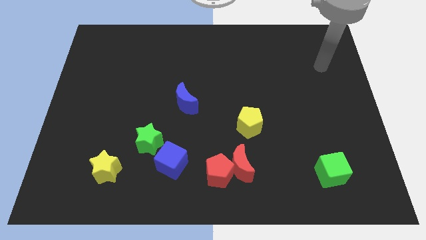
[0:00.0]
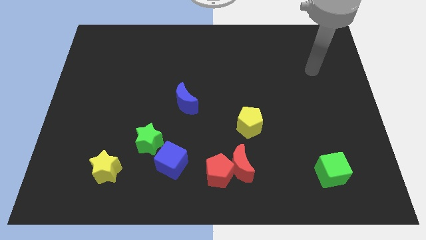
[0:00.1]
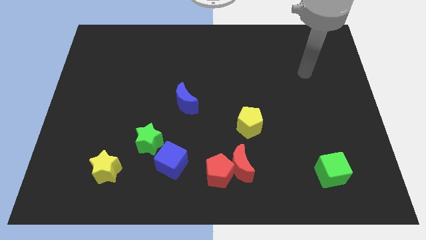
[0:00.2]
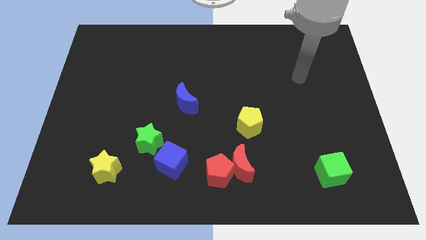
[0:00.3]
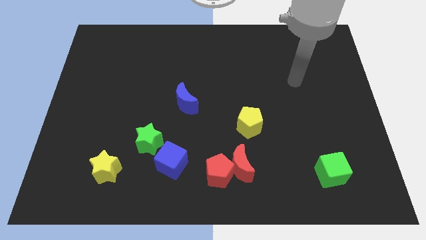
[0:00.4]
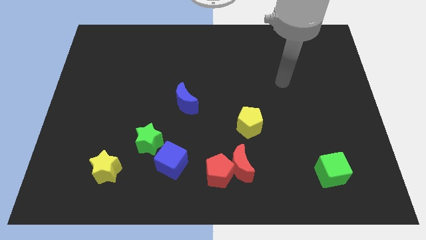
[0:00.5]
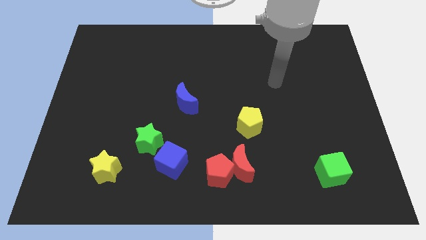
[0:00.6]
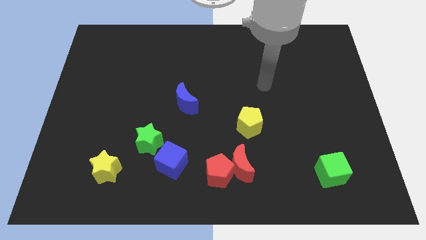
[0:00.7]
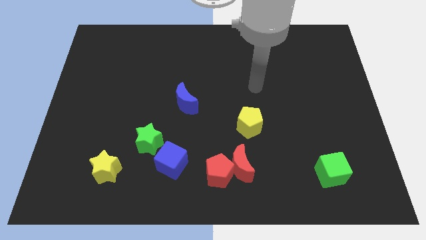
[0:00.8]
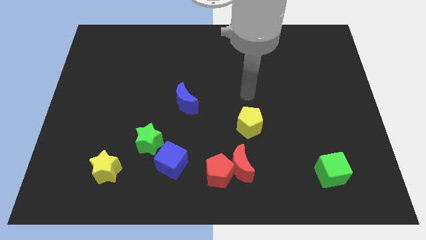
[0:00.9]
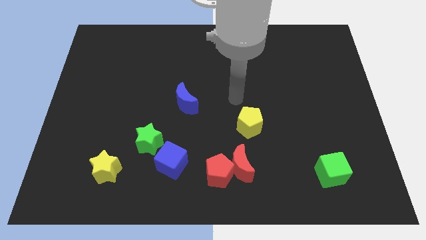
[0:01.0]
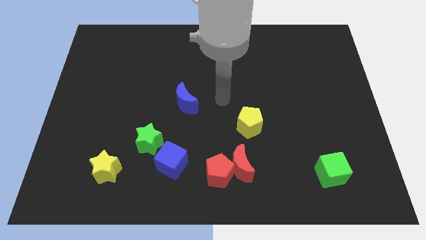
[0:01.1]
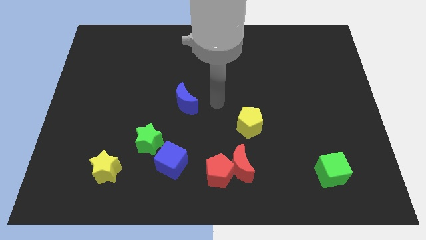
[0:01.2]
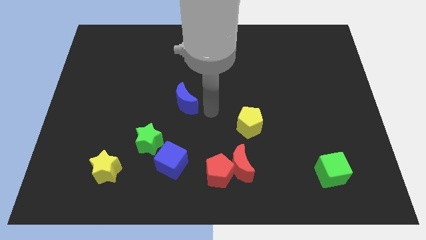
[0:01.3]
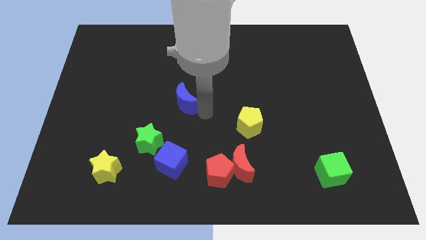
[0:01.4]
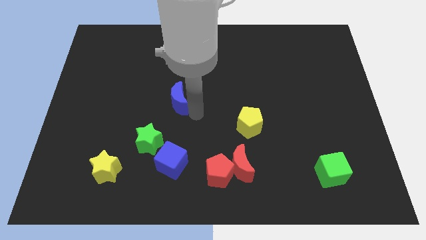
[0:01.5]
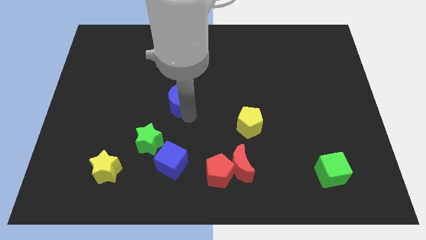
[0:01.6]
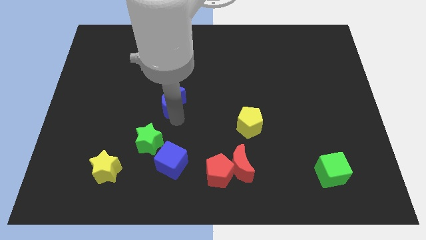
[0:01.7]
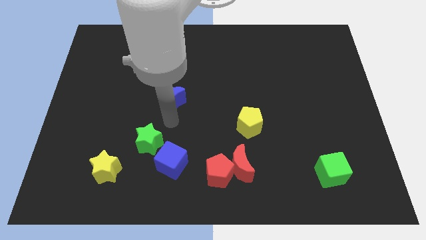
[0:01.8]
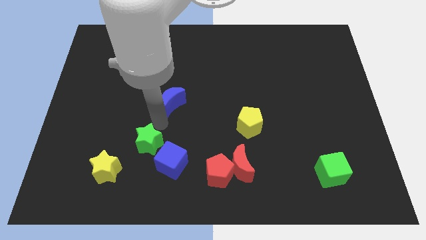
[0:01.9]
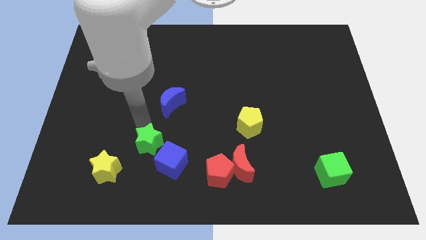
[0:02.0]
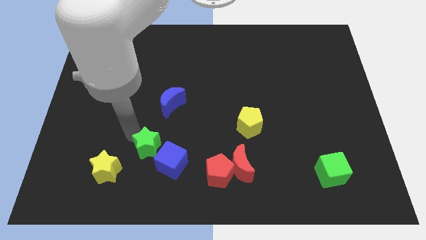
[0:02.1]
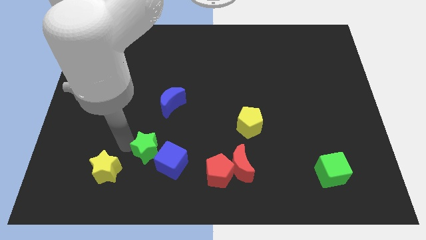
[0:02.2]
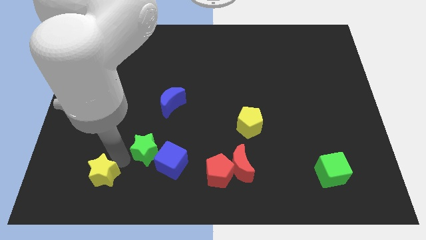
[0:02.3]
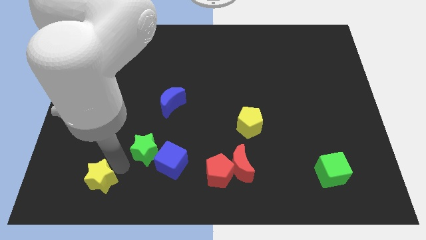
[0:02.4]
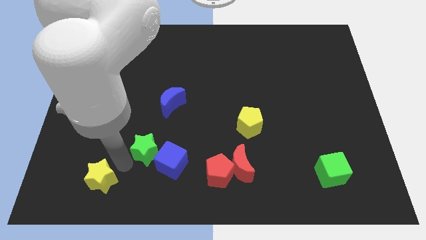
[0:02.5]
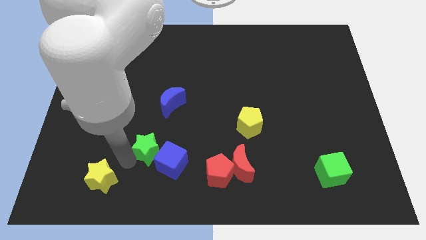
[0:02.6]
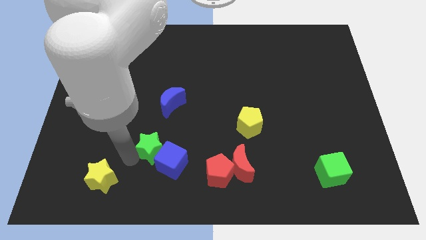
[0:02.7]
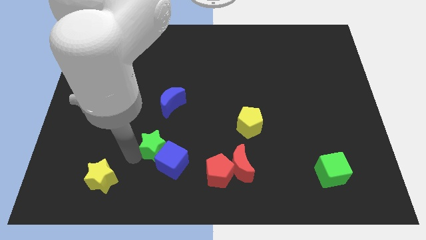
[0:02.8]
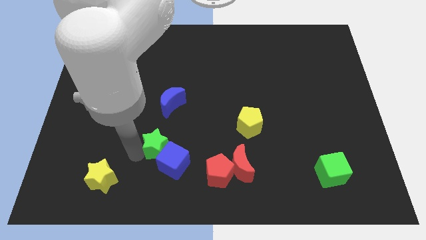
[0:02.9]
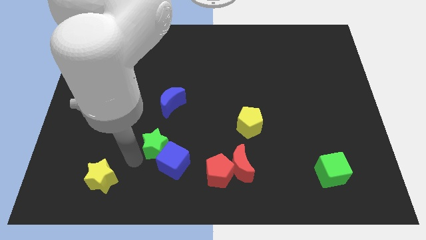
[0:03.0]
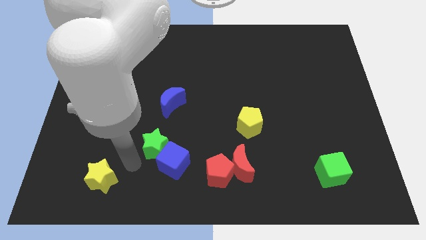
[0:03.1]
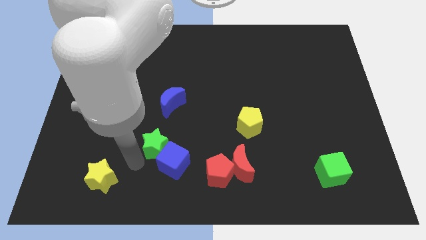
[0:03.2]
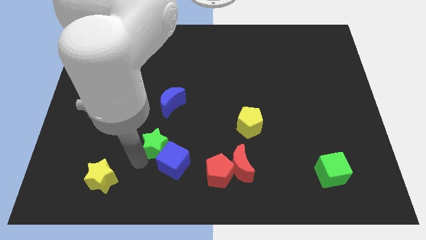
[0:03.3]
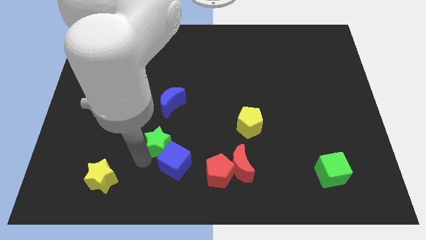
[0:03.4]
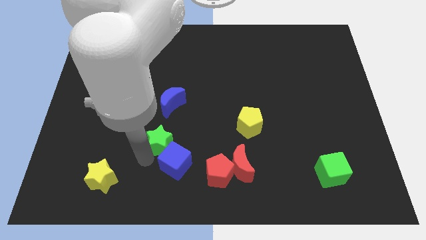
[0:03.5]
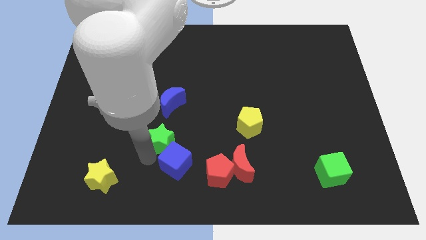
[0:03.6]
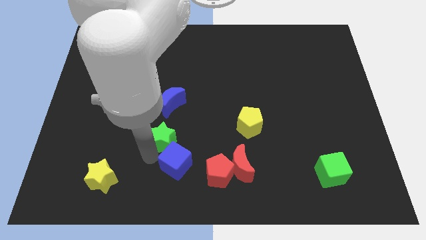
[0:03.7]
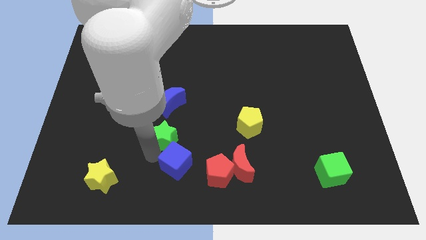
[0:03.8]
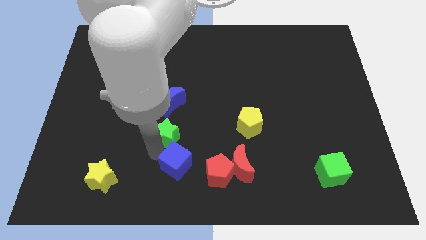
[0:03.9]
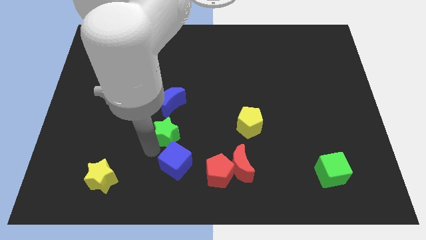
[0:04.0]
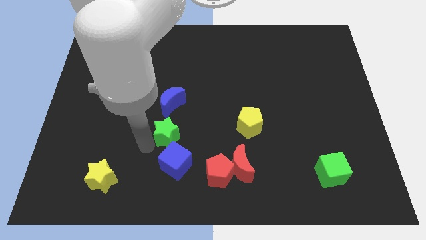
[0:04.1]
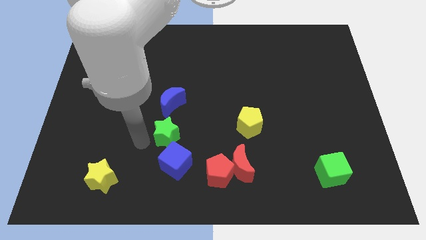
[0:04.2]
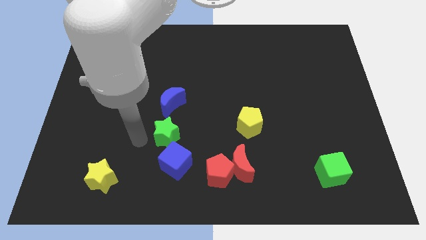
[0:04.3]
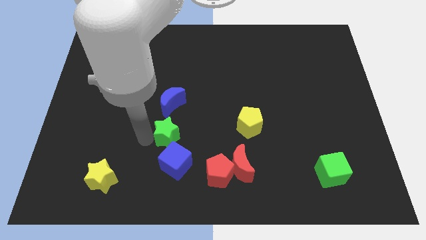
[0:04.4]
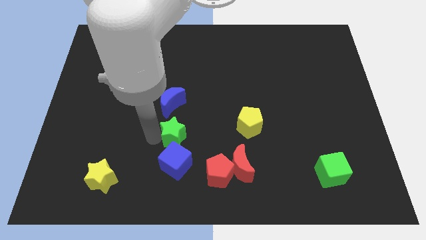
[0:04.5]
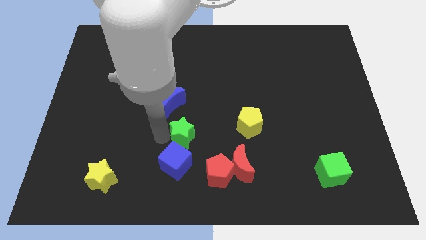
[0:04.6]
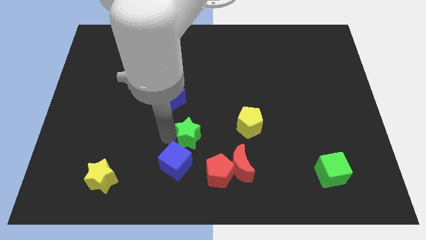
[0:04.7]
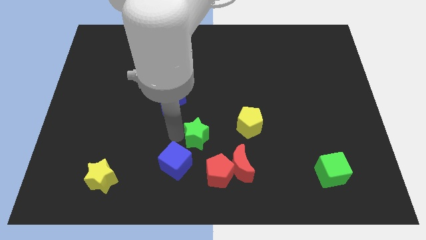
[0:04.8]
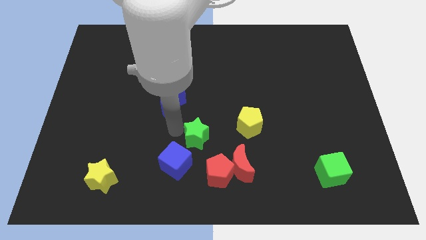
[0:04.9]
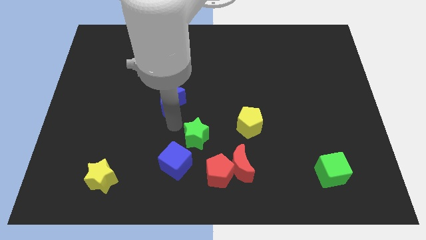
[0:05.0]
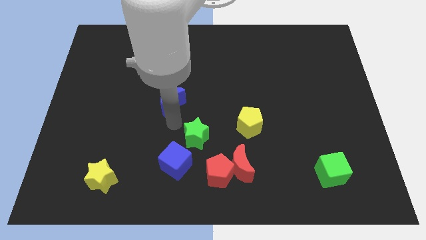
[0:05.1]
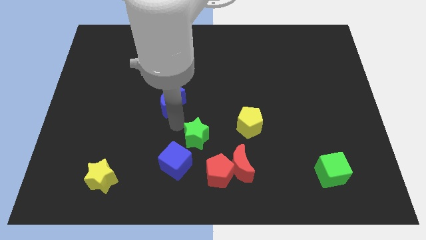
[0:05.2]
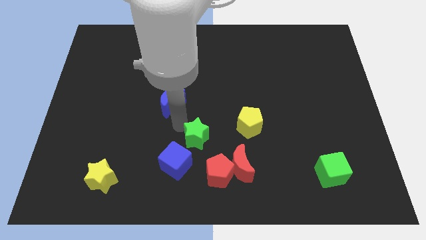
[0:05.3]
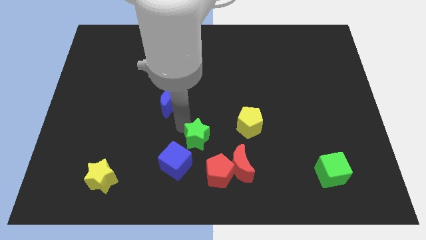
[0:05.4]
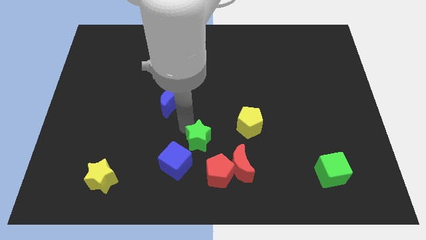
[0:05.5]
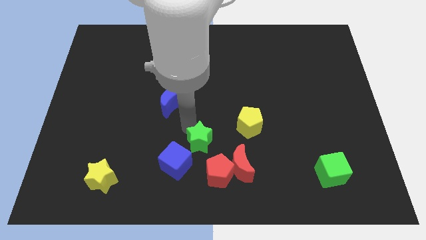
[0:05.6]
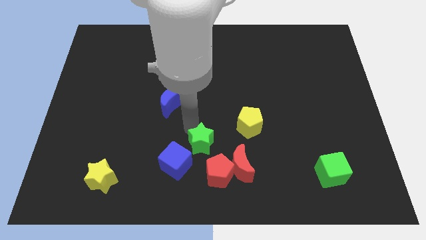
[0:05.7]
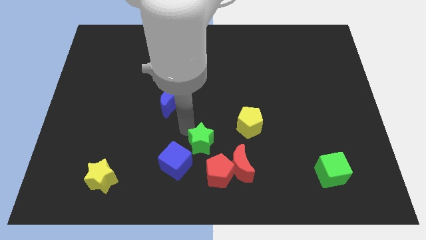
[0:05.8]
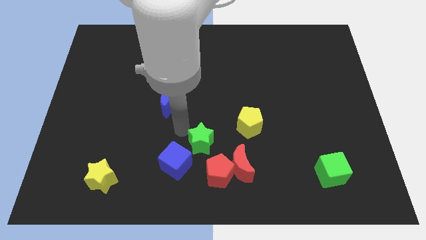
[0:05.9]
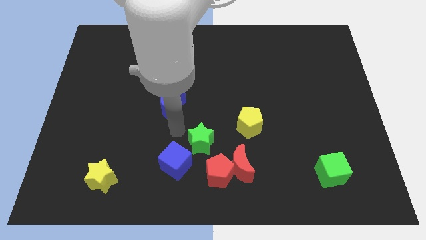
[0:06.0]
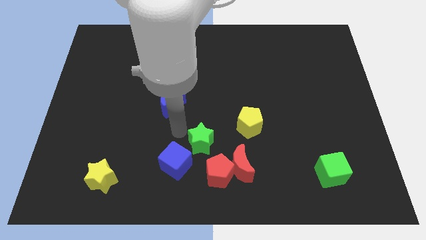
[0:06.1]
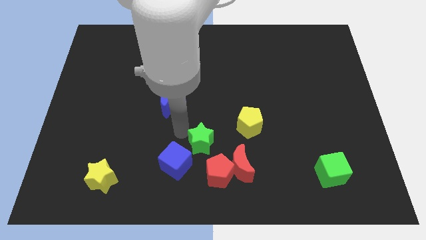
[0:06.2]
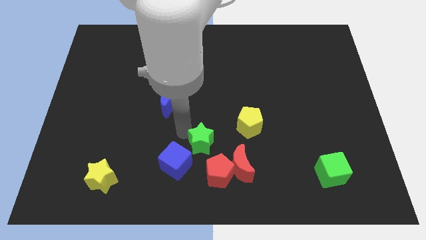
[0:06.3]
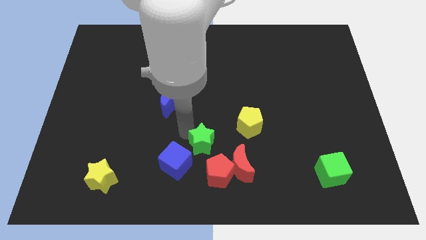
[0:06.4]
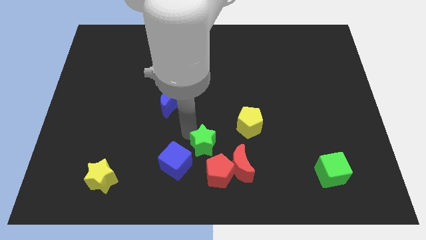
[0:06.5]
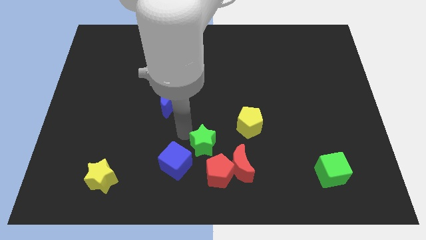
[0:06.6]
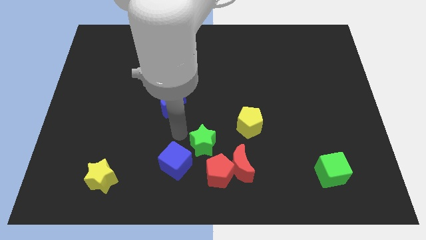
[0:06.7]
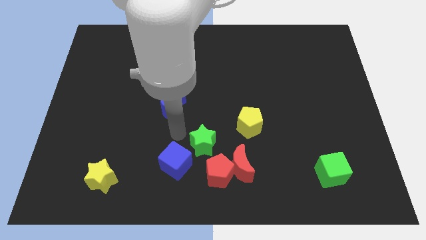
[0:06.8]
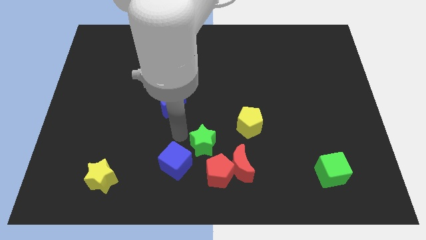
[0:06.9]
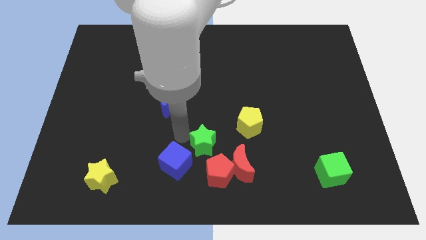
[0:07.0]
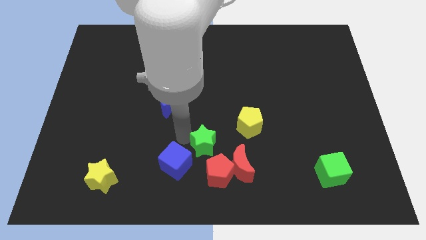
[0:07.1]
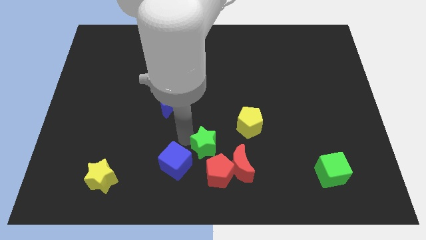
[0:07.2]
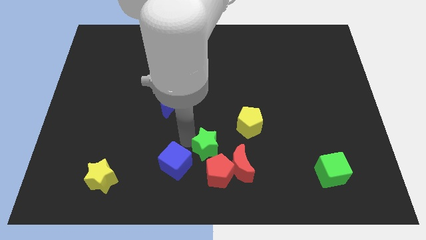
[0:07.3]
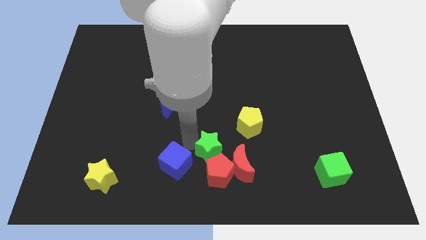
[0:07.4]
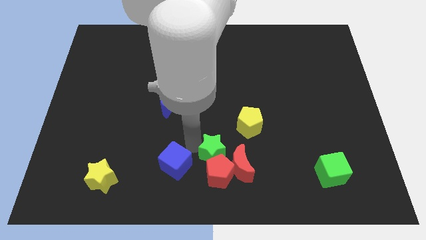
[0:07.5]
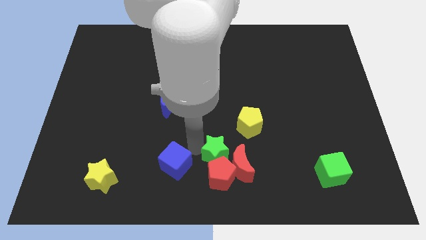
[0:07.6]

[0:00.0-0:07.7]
move the green star towards the red moon
